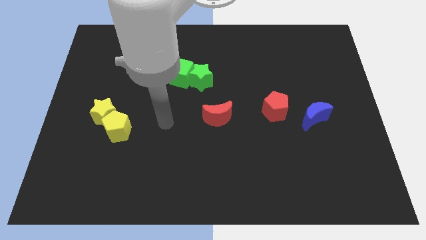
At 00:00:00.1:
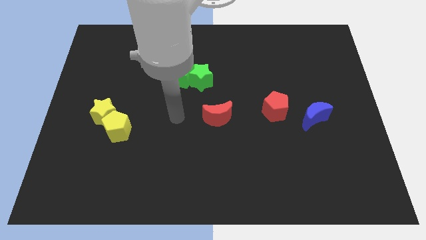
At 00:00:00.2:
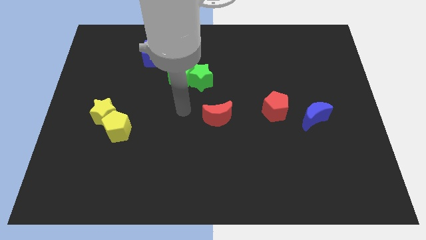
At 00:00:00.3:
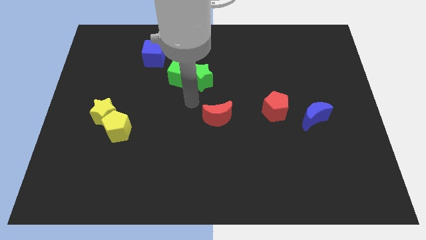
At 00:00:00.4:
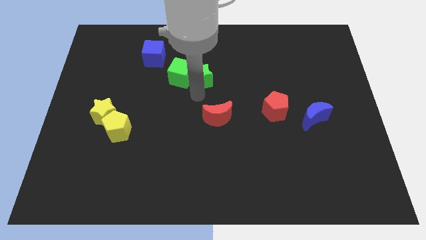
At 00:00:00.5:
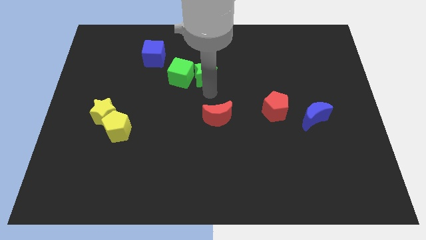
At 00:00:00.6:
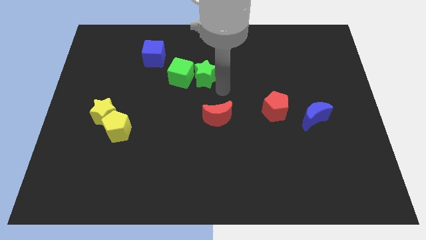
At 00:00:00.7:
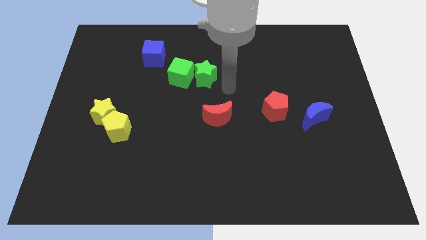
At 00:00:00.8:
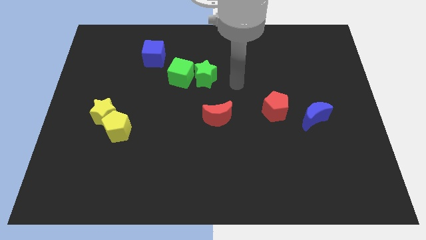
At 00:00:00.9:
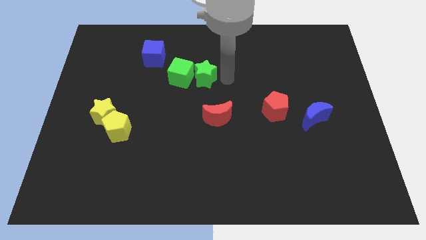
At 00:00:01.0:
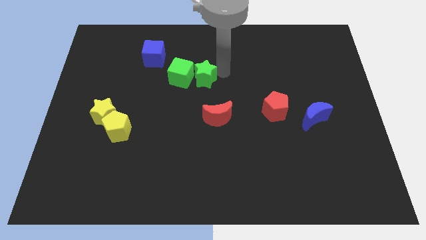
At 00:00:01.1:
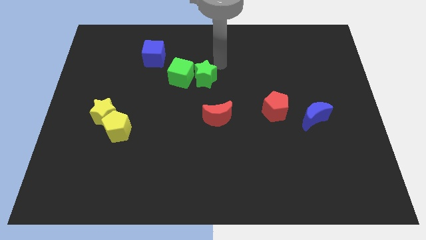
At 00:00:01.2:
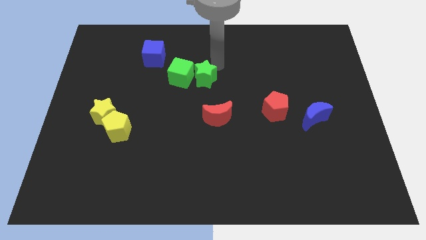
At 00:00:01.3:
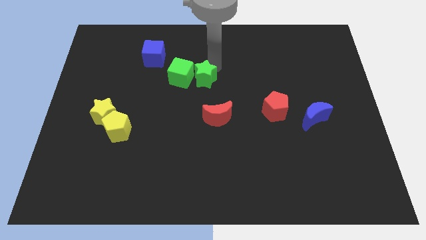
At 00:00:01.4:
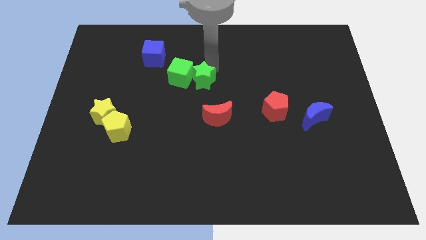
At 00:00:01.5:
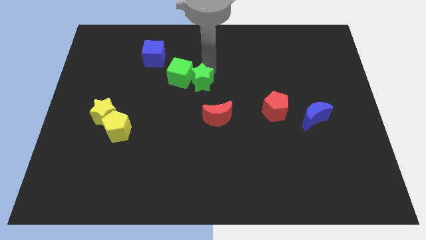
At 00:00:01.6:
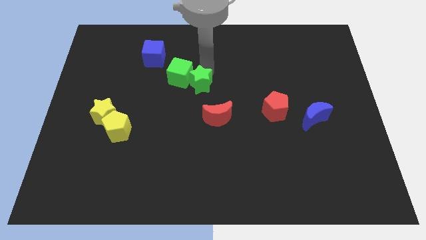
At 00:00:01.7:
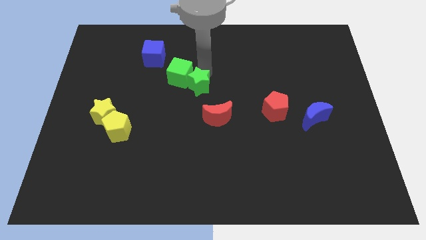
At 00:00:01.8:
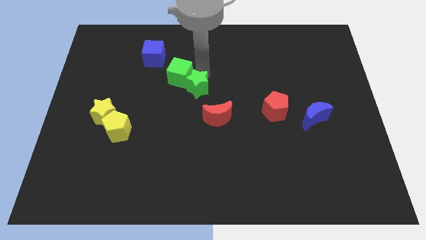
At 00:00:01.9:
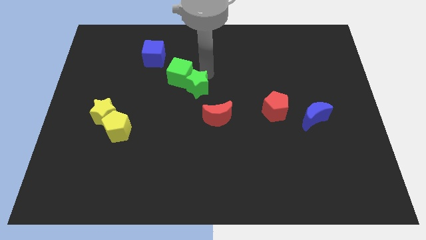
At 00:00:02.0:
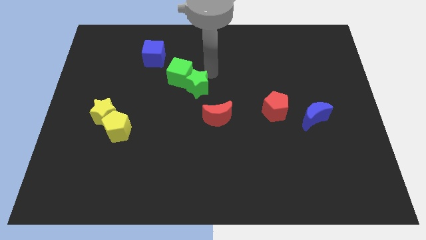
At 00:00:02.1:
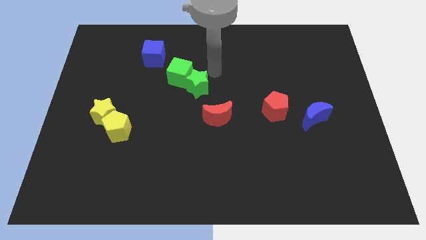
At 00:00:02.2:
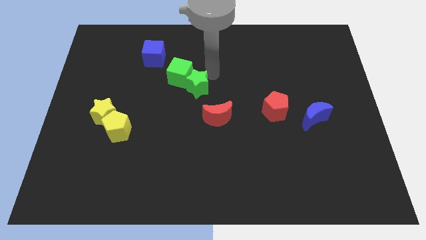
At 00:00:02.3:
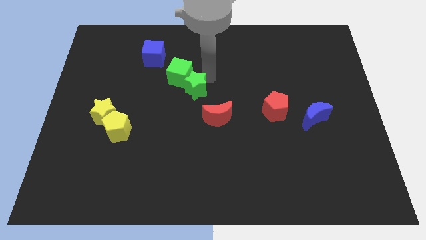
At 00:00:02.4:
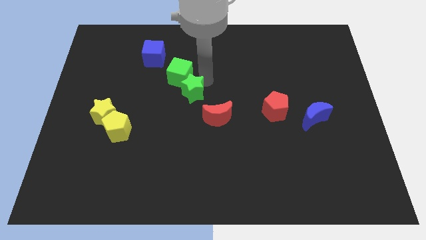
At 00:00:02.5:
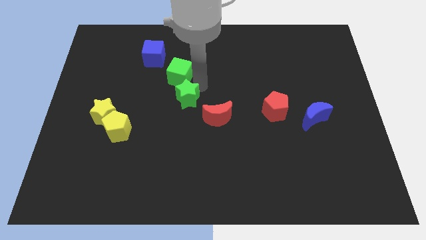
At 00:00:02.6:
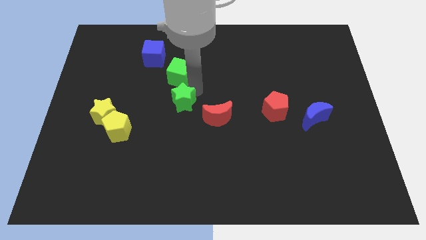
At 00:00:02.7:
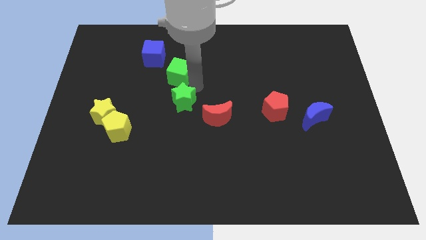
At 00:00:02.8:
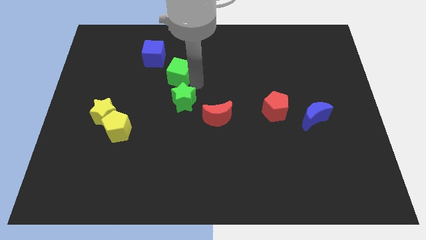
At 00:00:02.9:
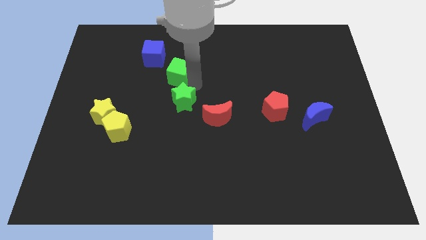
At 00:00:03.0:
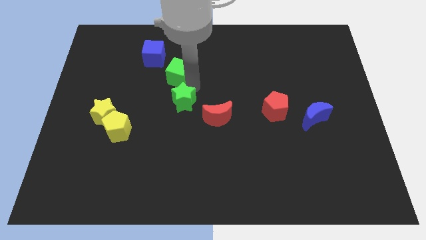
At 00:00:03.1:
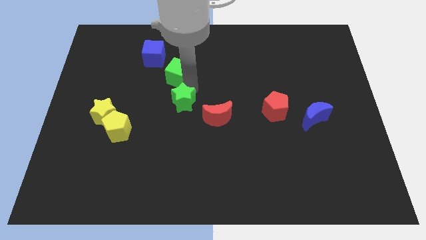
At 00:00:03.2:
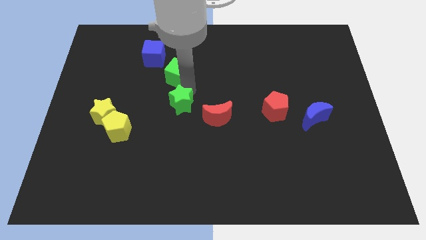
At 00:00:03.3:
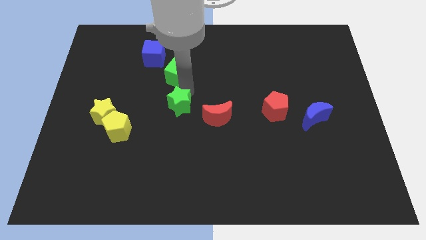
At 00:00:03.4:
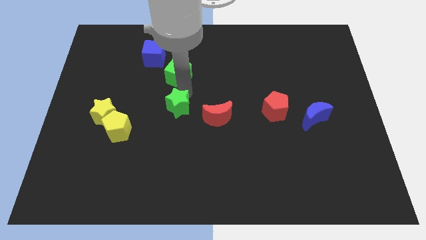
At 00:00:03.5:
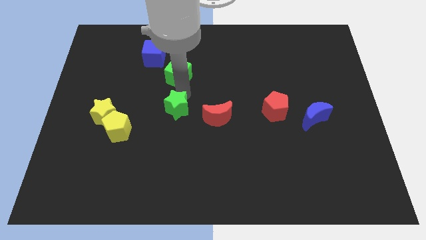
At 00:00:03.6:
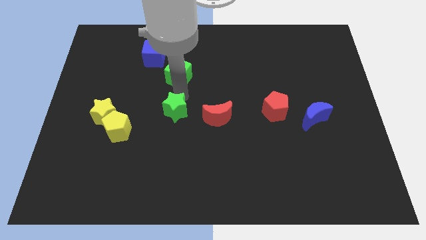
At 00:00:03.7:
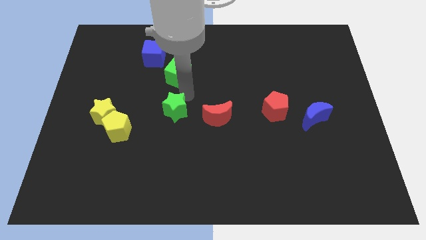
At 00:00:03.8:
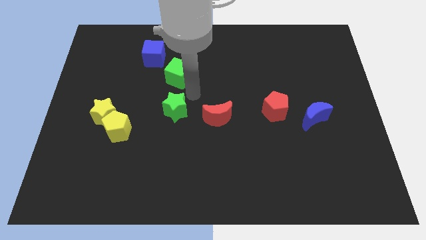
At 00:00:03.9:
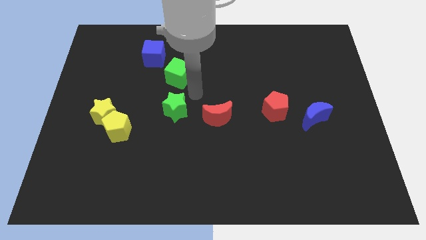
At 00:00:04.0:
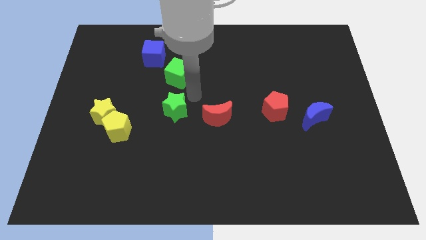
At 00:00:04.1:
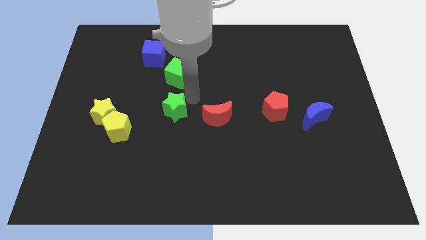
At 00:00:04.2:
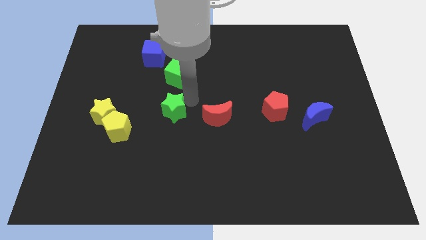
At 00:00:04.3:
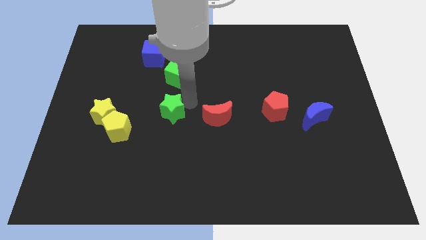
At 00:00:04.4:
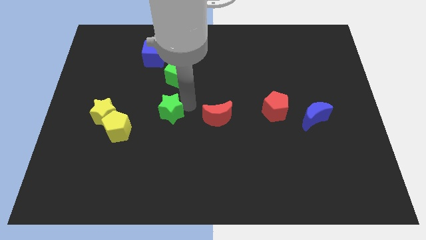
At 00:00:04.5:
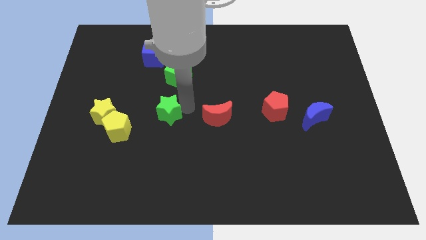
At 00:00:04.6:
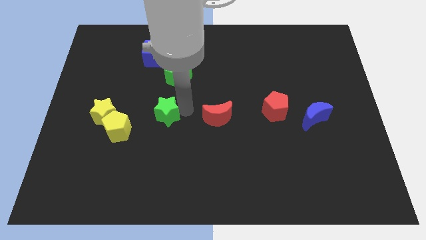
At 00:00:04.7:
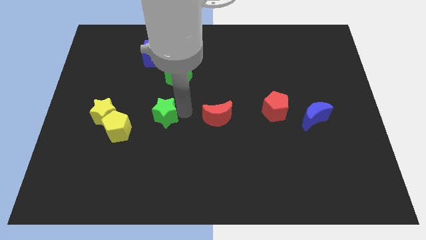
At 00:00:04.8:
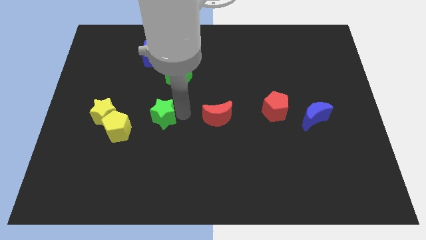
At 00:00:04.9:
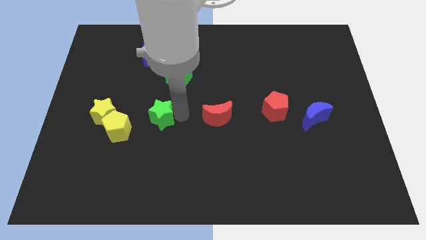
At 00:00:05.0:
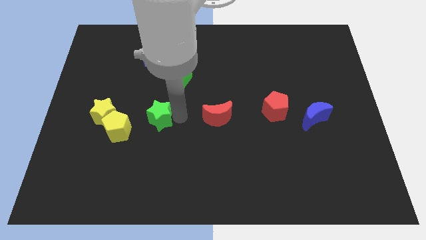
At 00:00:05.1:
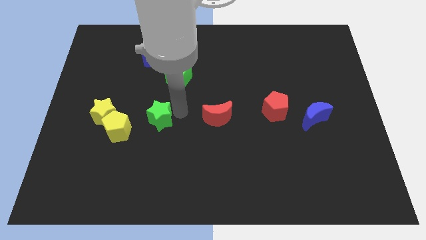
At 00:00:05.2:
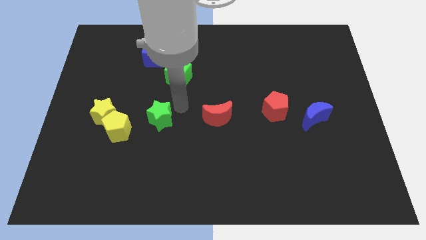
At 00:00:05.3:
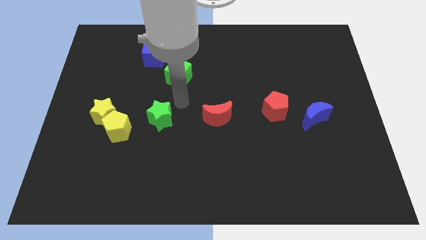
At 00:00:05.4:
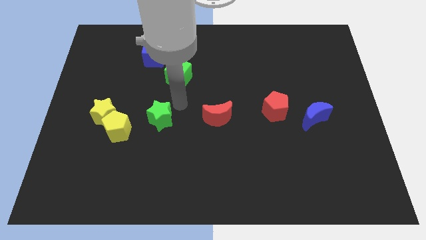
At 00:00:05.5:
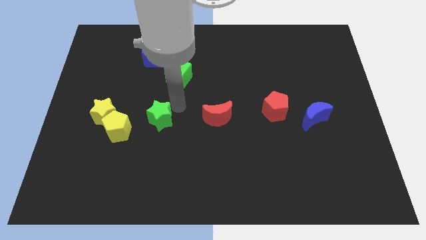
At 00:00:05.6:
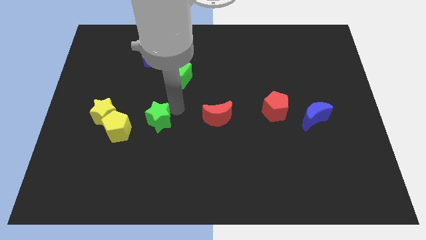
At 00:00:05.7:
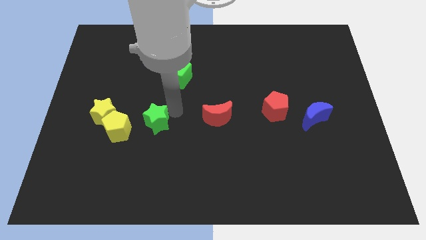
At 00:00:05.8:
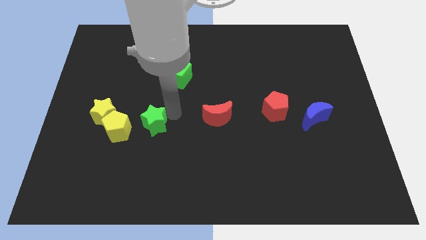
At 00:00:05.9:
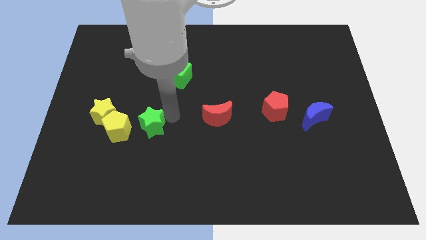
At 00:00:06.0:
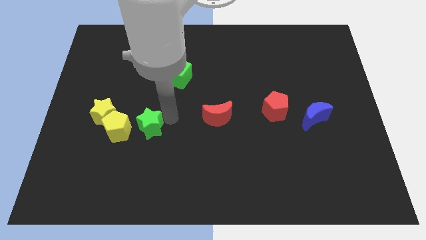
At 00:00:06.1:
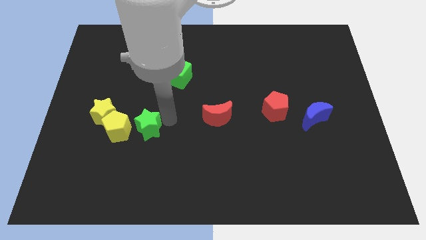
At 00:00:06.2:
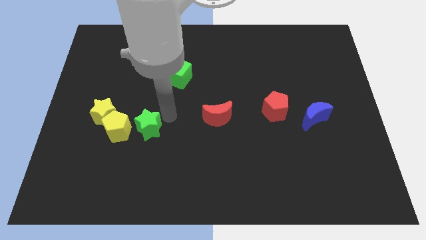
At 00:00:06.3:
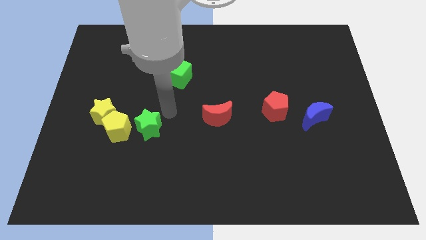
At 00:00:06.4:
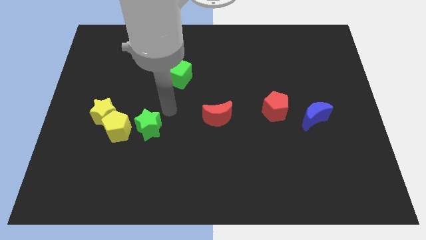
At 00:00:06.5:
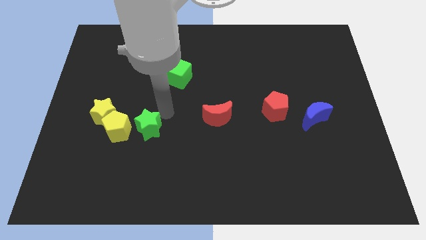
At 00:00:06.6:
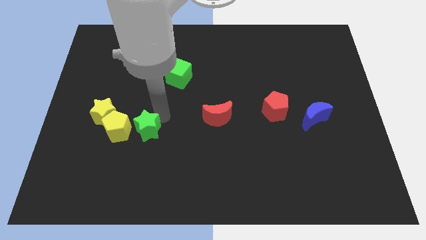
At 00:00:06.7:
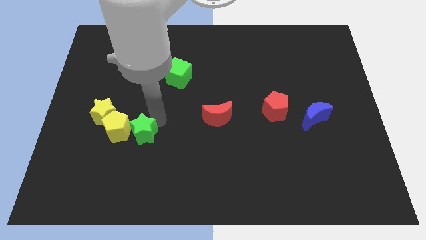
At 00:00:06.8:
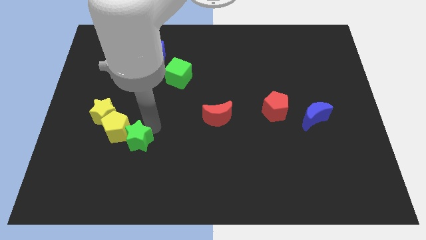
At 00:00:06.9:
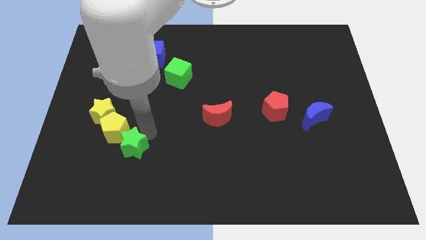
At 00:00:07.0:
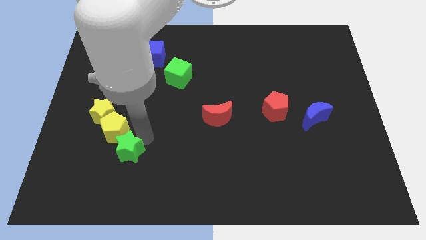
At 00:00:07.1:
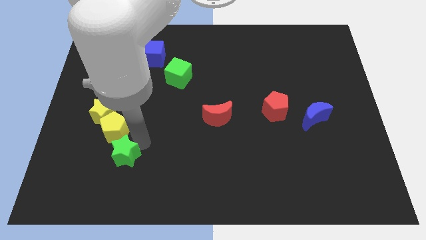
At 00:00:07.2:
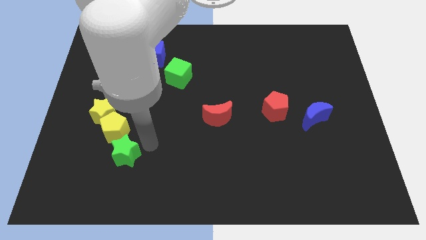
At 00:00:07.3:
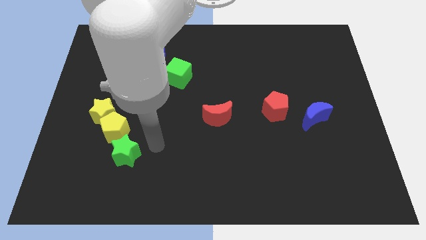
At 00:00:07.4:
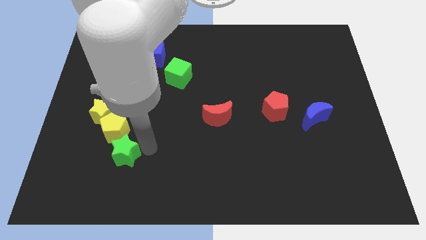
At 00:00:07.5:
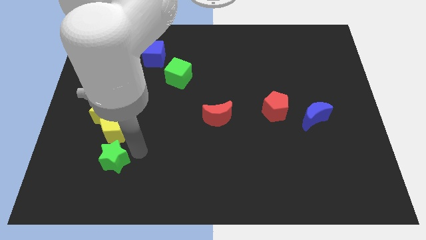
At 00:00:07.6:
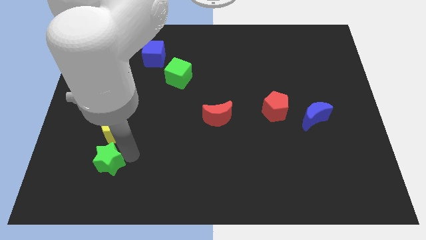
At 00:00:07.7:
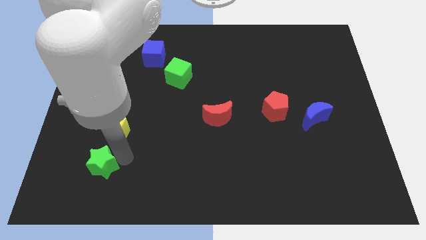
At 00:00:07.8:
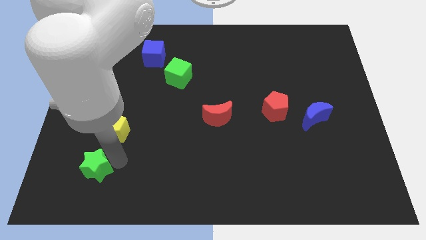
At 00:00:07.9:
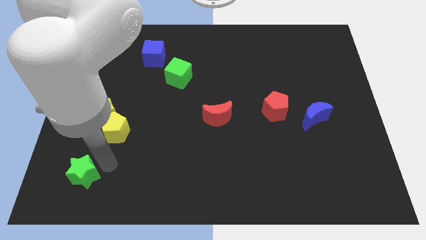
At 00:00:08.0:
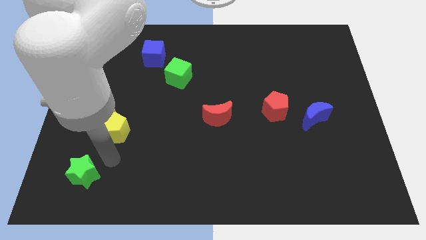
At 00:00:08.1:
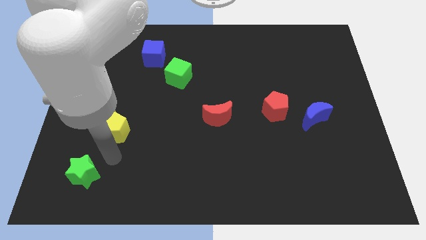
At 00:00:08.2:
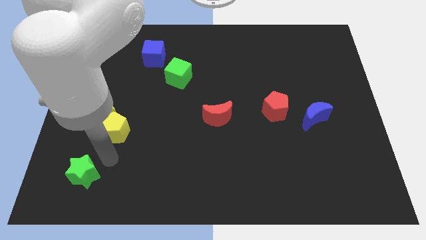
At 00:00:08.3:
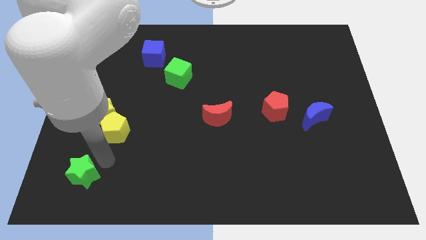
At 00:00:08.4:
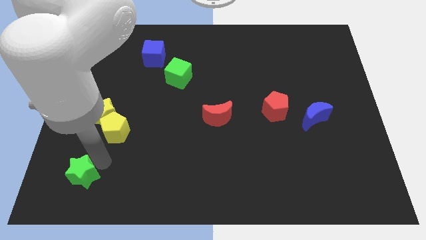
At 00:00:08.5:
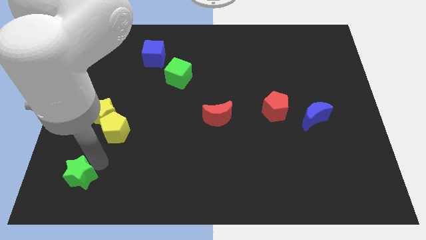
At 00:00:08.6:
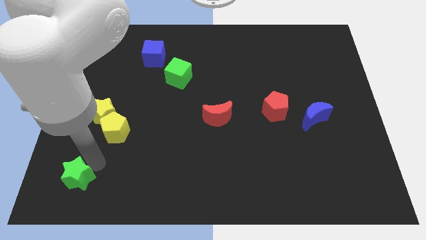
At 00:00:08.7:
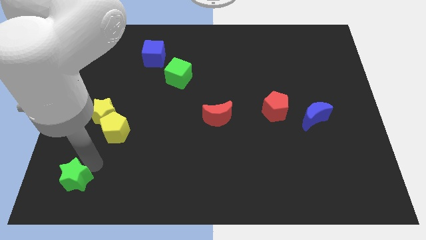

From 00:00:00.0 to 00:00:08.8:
push the green star to the bottom left corner
